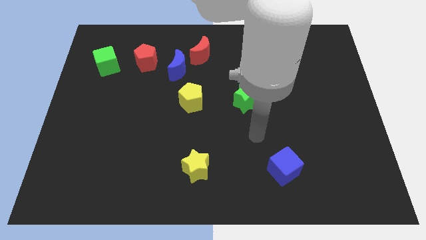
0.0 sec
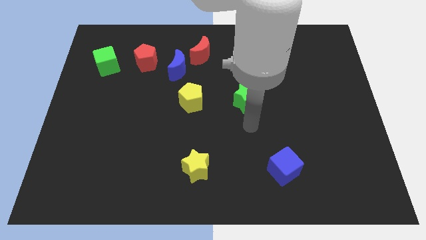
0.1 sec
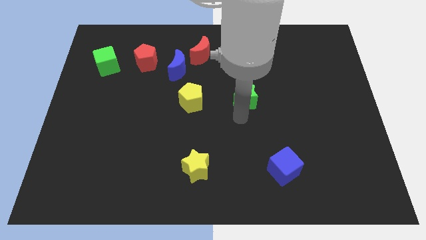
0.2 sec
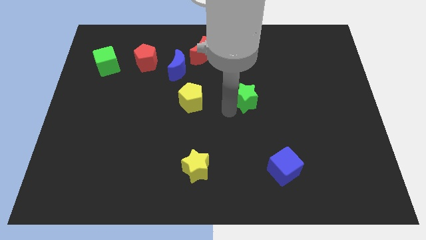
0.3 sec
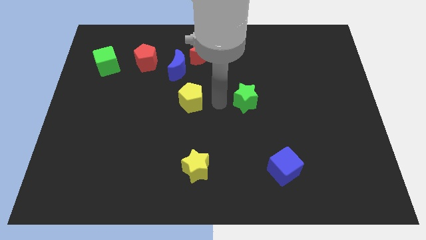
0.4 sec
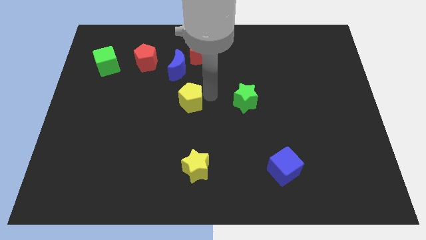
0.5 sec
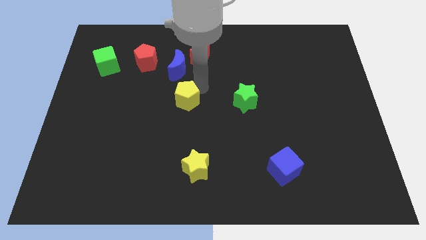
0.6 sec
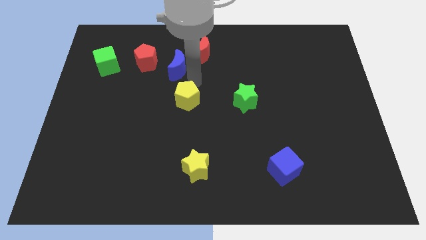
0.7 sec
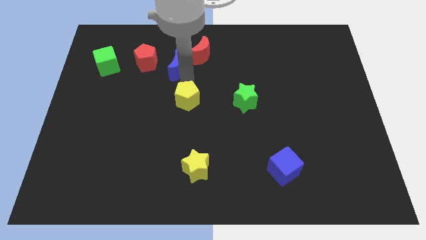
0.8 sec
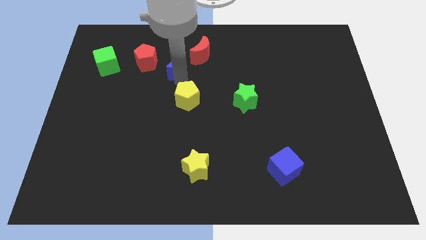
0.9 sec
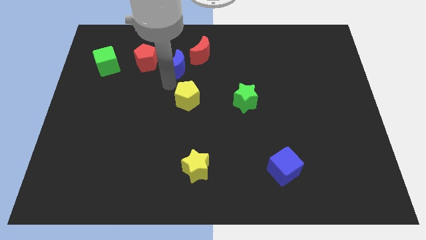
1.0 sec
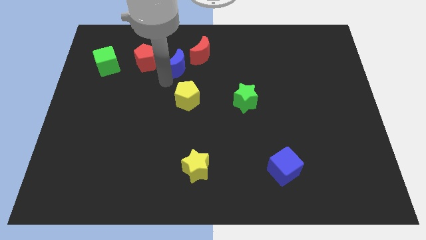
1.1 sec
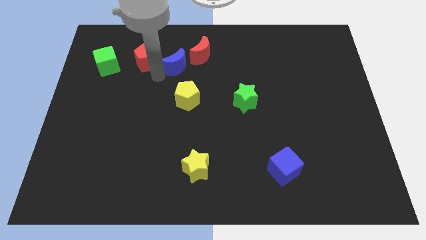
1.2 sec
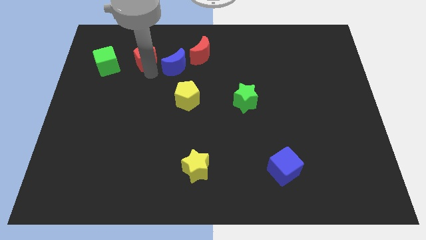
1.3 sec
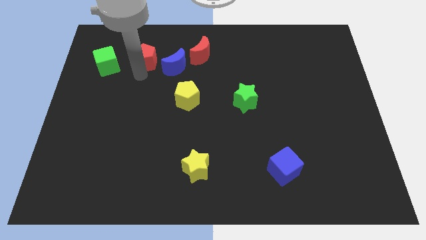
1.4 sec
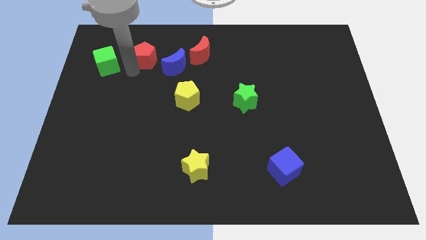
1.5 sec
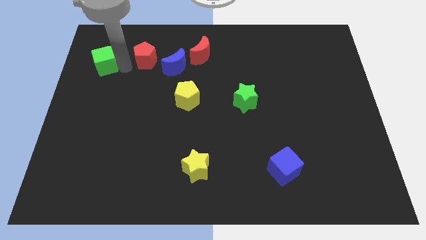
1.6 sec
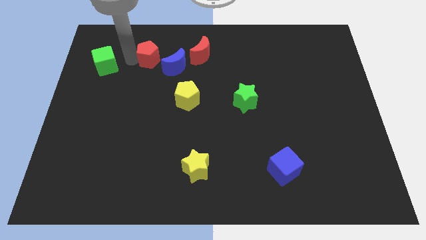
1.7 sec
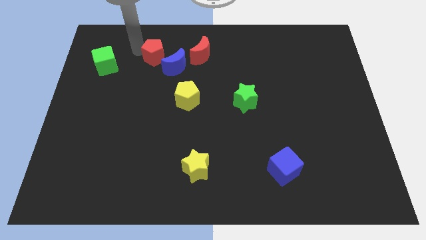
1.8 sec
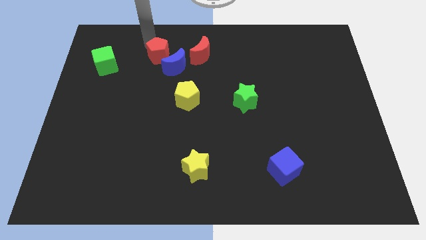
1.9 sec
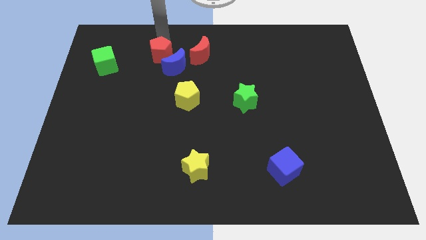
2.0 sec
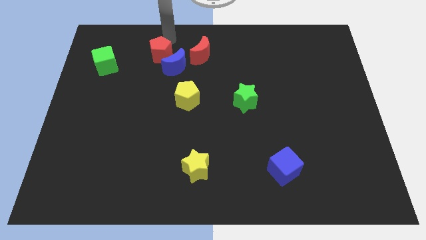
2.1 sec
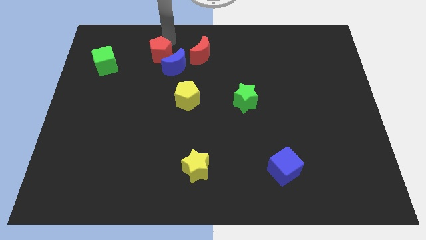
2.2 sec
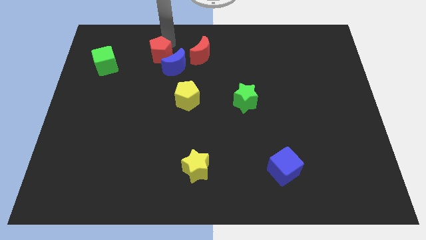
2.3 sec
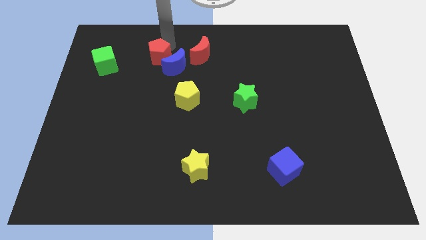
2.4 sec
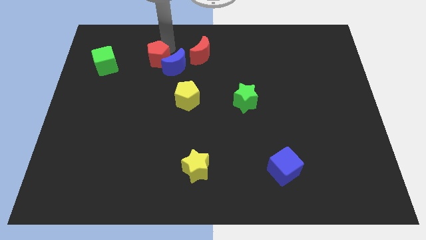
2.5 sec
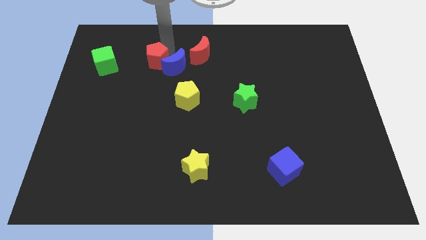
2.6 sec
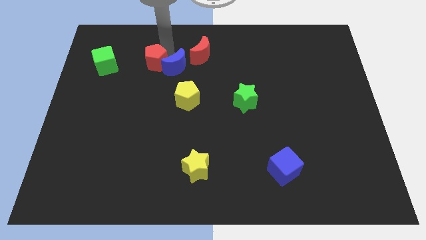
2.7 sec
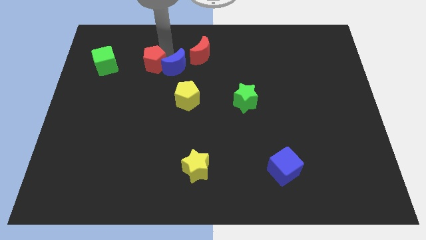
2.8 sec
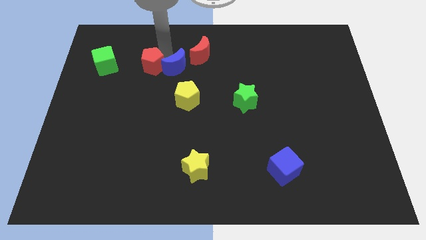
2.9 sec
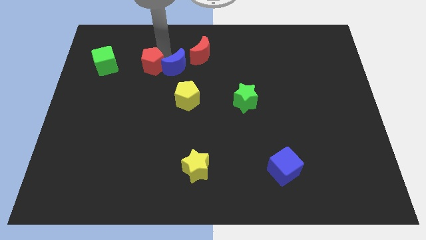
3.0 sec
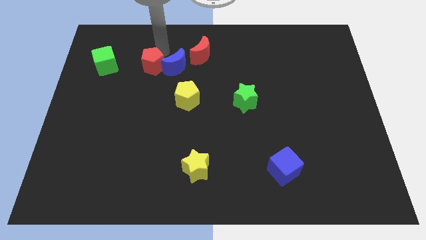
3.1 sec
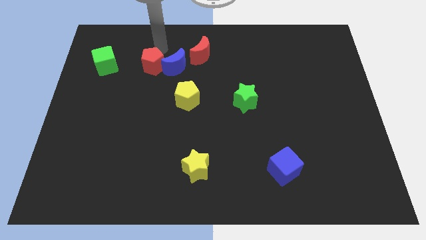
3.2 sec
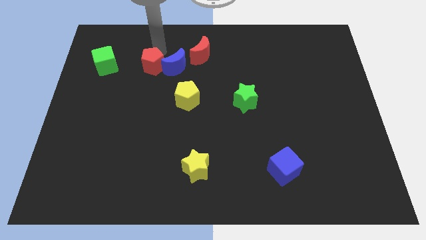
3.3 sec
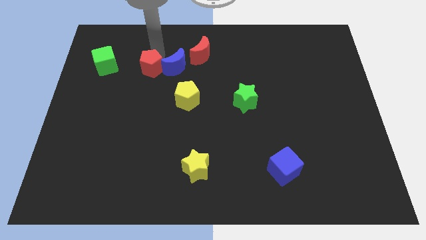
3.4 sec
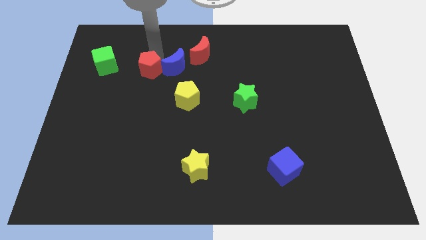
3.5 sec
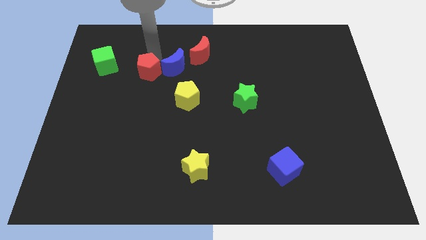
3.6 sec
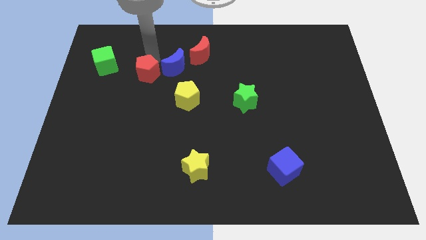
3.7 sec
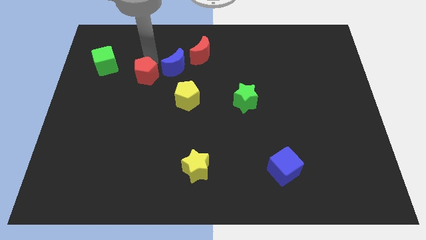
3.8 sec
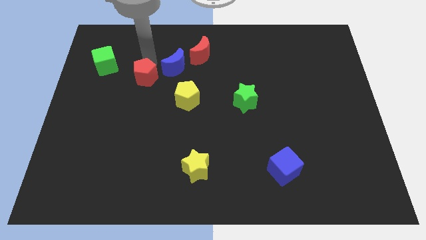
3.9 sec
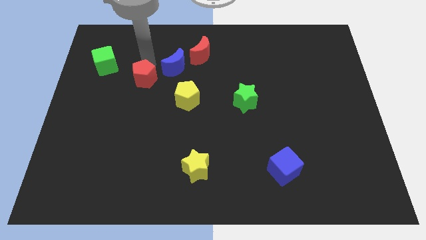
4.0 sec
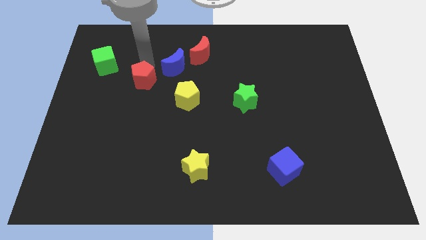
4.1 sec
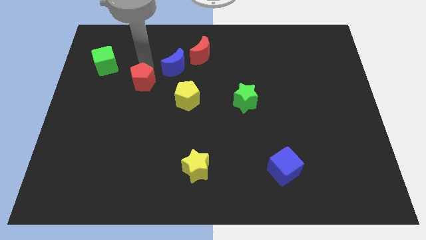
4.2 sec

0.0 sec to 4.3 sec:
slide the red pentagon down a bit

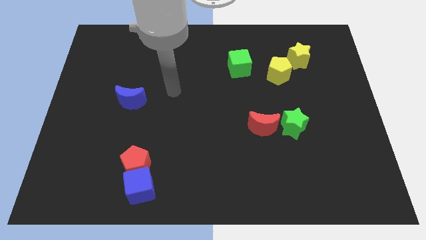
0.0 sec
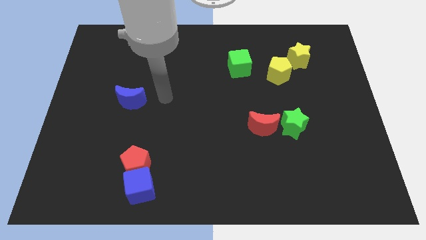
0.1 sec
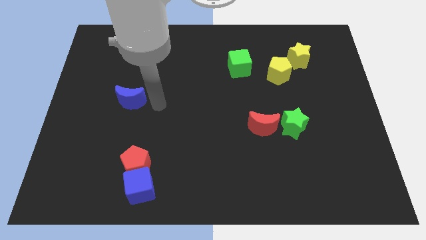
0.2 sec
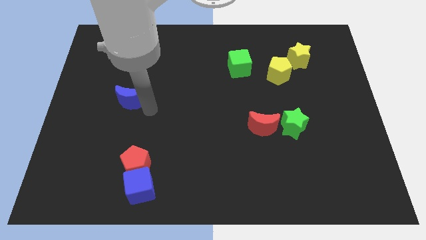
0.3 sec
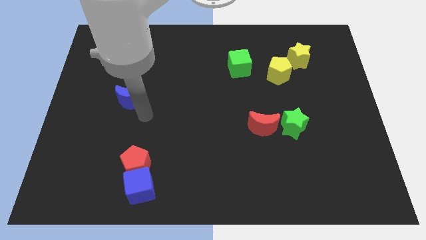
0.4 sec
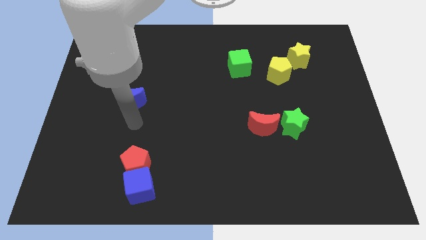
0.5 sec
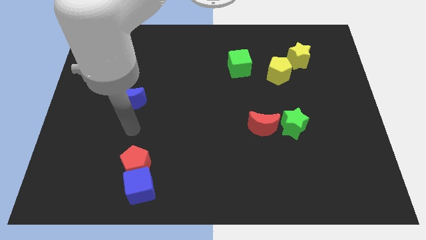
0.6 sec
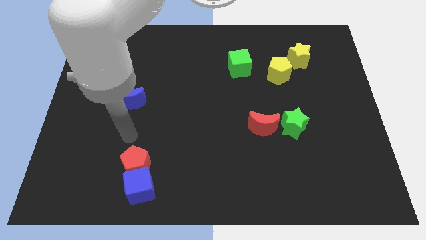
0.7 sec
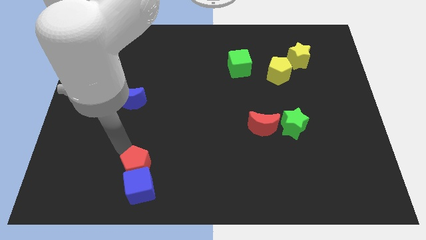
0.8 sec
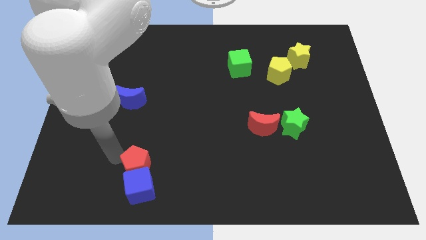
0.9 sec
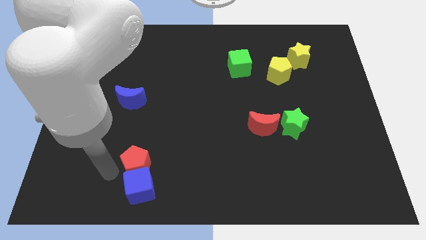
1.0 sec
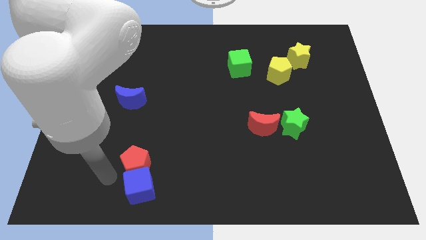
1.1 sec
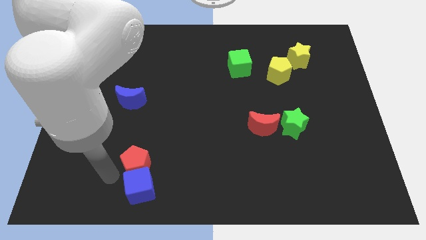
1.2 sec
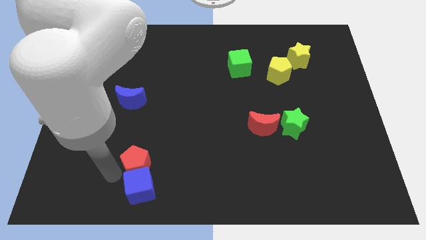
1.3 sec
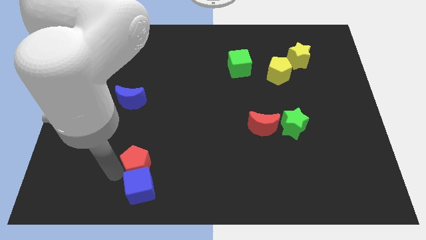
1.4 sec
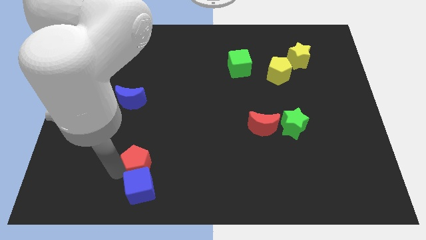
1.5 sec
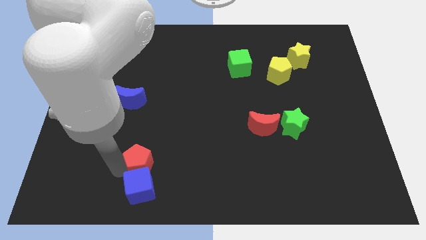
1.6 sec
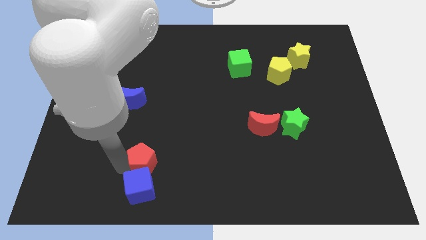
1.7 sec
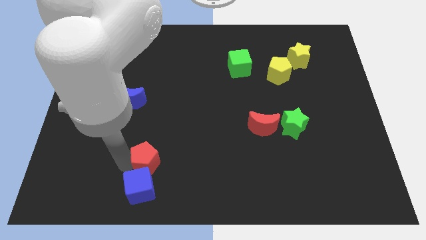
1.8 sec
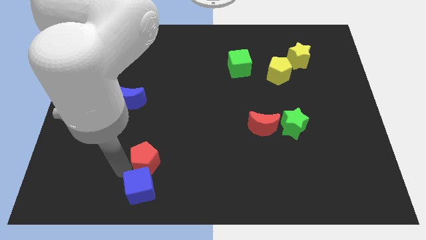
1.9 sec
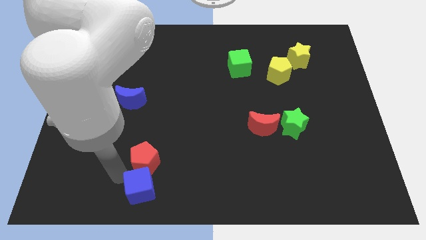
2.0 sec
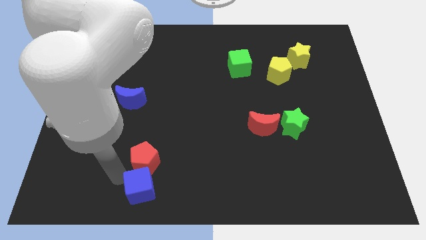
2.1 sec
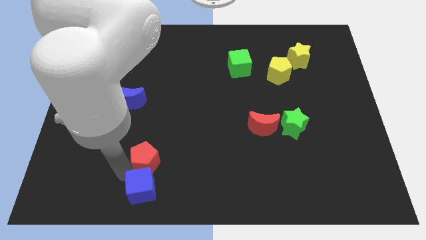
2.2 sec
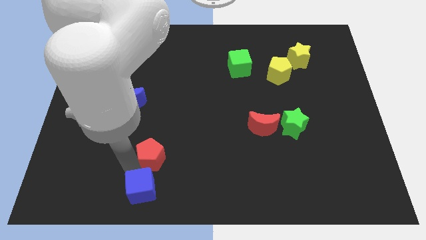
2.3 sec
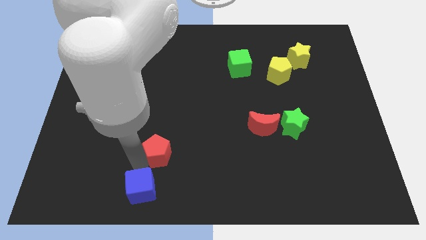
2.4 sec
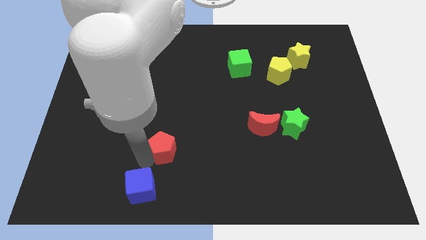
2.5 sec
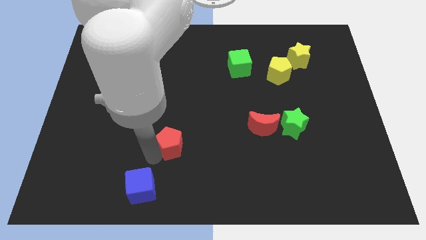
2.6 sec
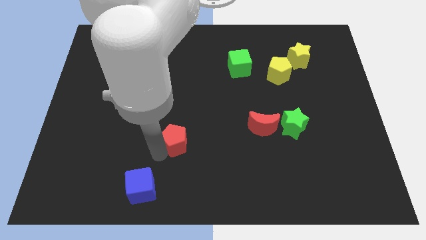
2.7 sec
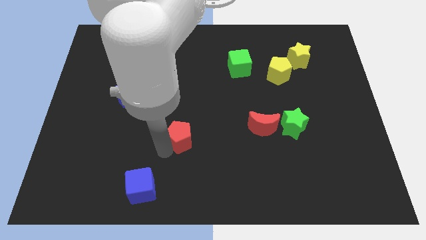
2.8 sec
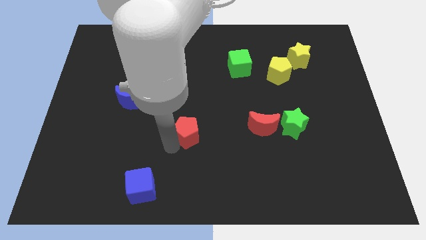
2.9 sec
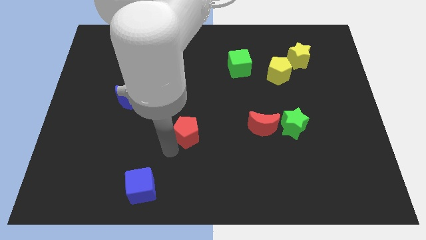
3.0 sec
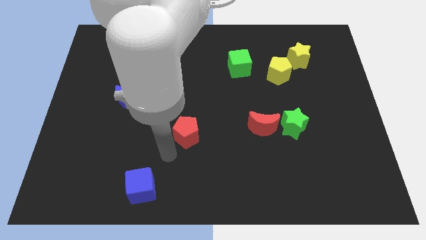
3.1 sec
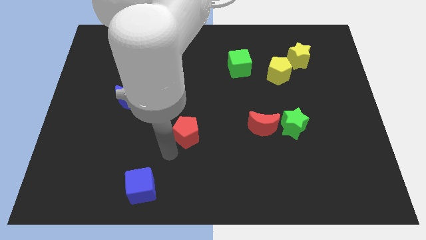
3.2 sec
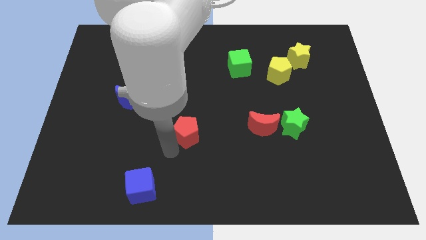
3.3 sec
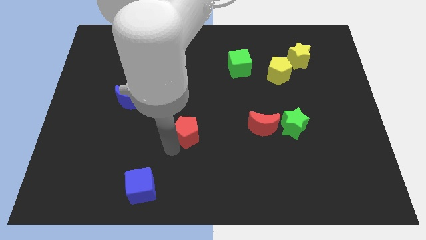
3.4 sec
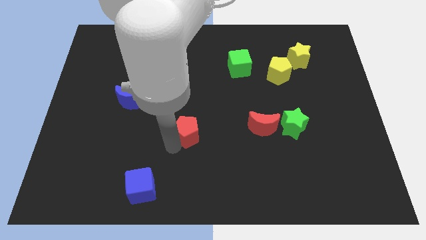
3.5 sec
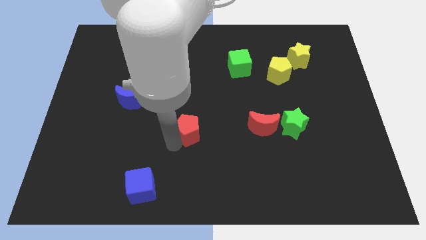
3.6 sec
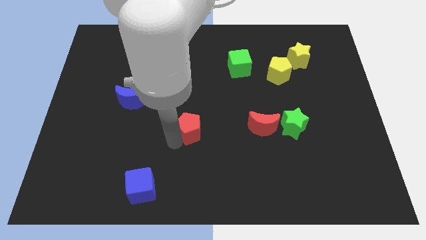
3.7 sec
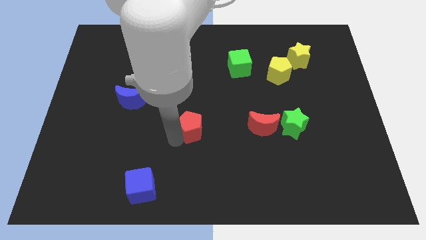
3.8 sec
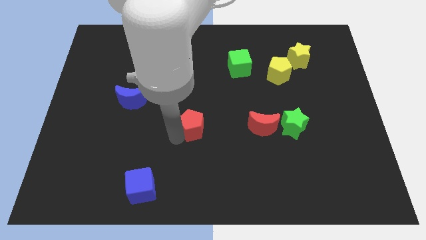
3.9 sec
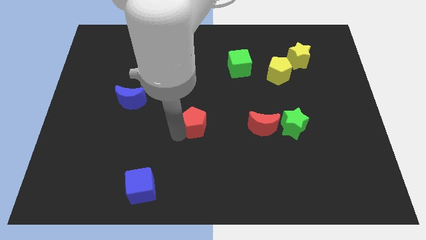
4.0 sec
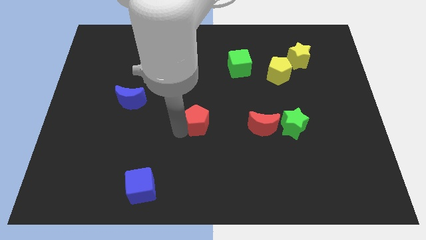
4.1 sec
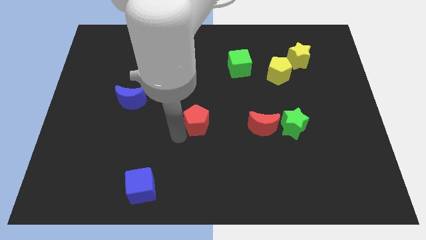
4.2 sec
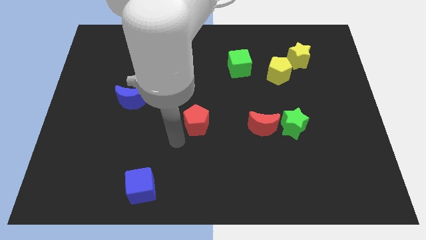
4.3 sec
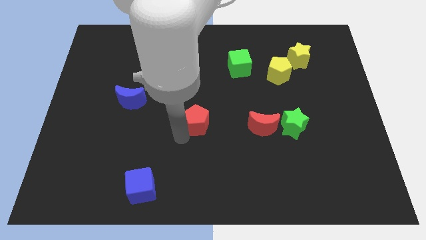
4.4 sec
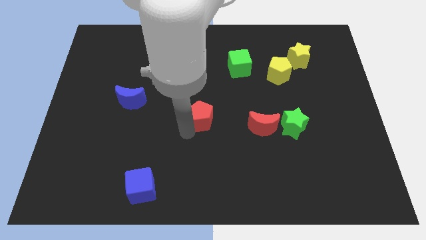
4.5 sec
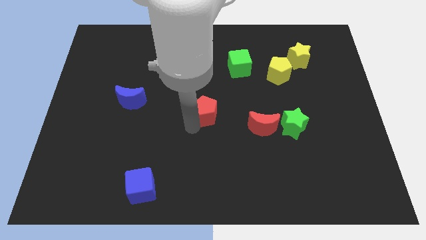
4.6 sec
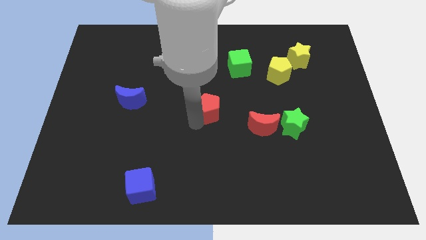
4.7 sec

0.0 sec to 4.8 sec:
move the red pentagon diagonally upwards and right
